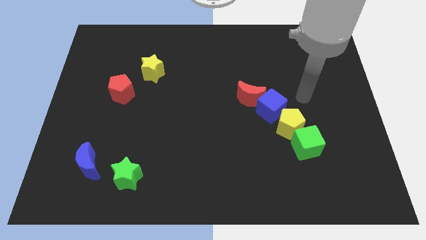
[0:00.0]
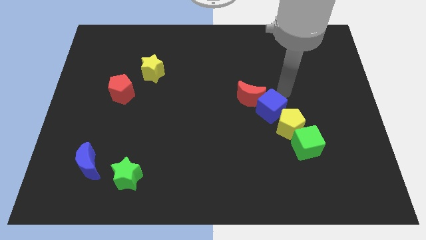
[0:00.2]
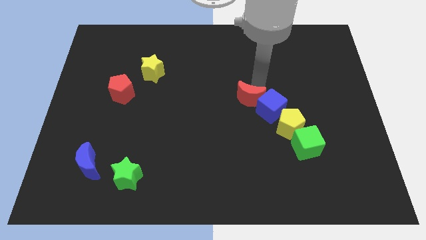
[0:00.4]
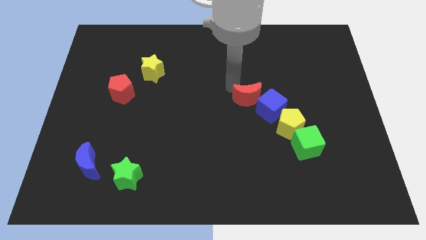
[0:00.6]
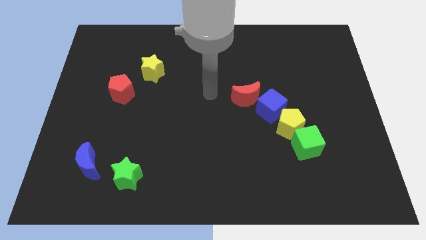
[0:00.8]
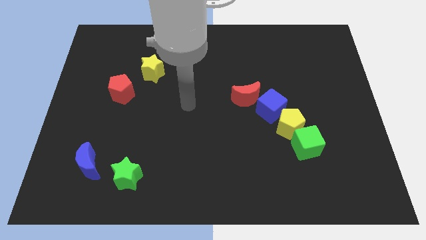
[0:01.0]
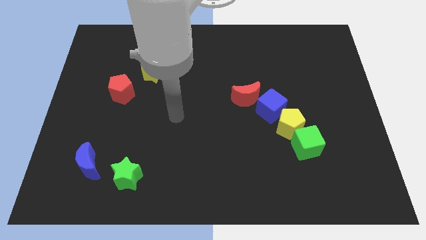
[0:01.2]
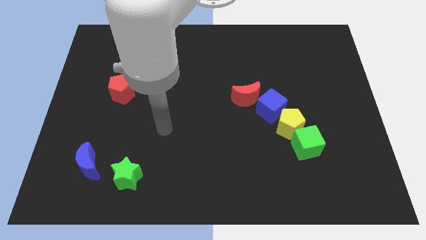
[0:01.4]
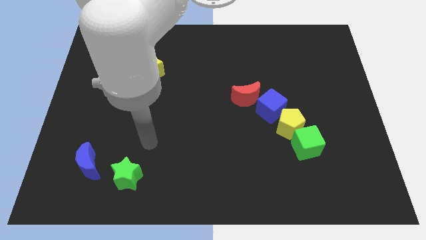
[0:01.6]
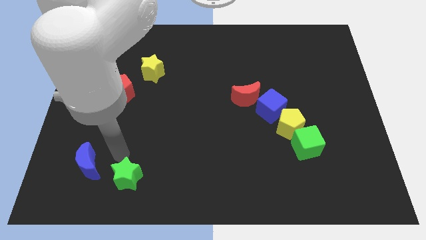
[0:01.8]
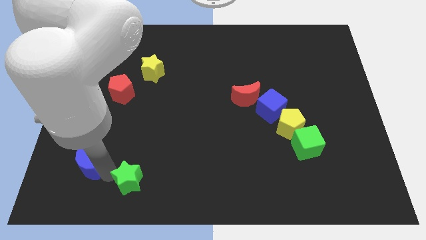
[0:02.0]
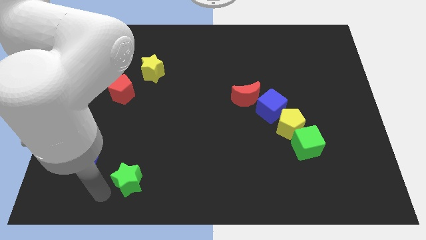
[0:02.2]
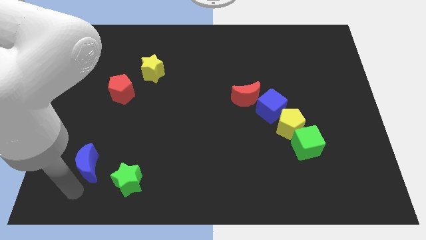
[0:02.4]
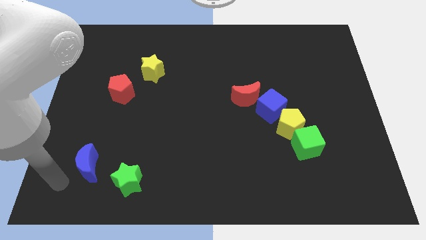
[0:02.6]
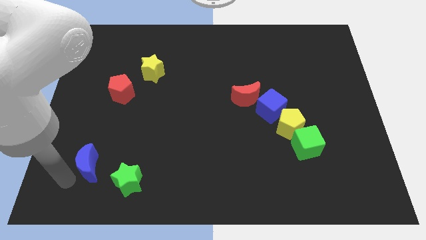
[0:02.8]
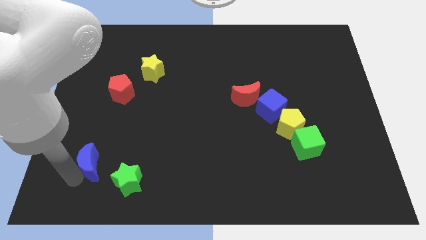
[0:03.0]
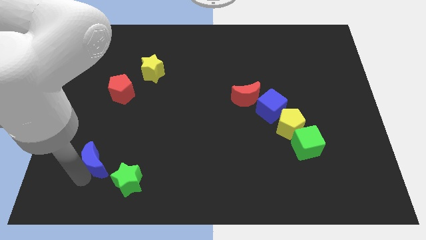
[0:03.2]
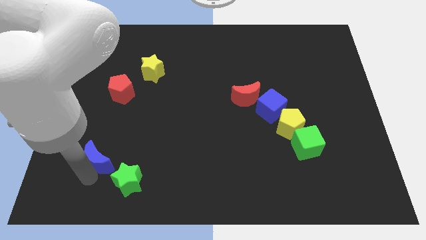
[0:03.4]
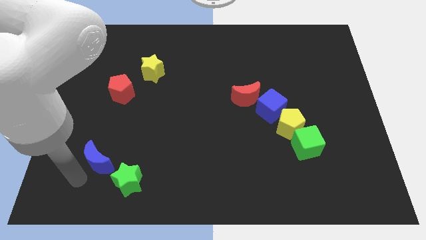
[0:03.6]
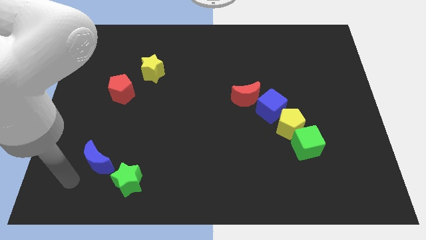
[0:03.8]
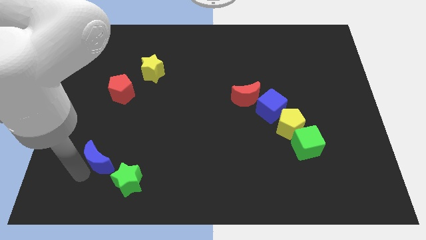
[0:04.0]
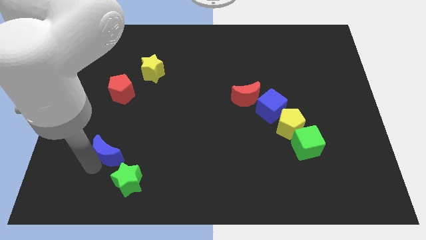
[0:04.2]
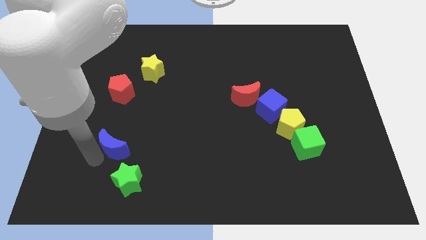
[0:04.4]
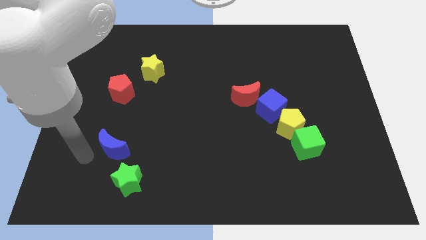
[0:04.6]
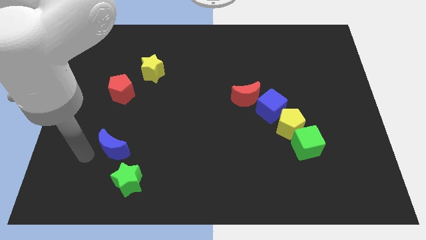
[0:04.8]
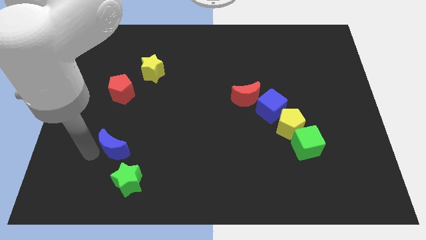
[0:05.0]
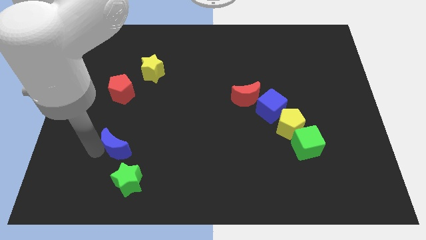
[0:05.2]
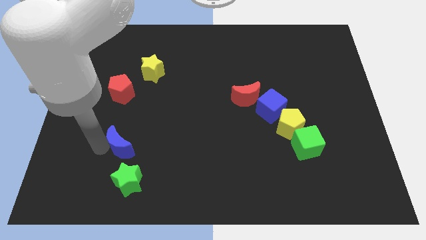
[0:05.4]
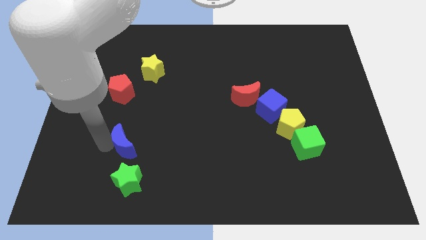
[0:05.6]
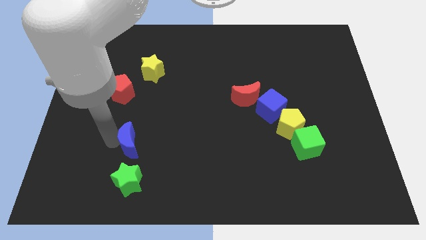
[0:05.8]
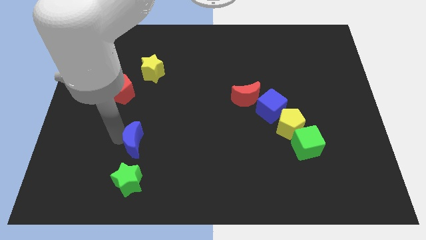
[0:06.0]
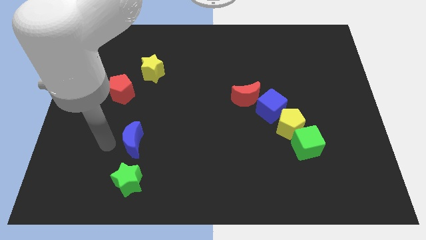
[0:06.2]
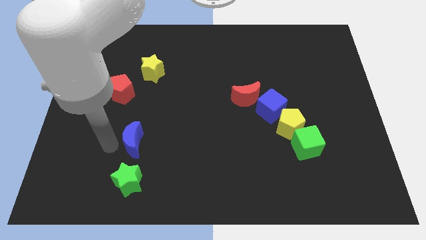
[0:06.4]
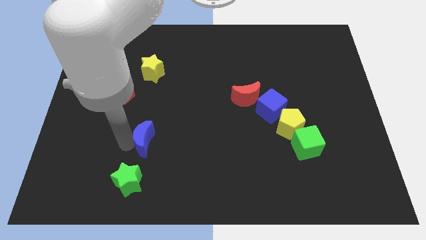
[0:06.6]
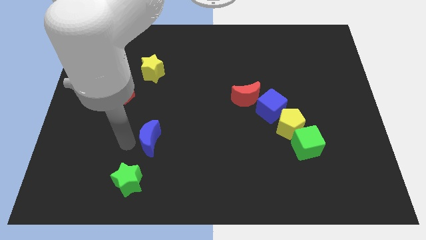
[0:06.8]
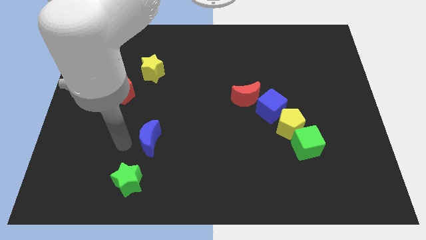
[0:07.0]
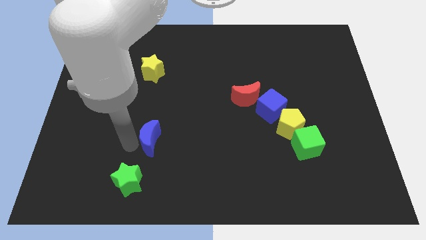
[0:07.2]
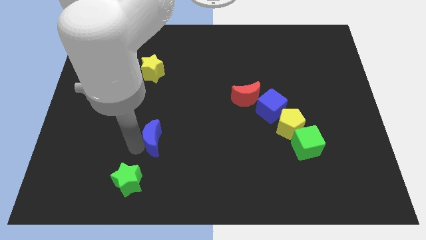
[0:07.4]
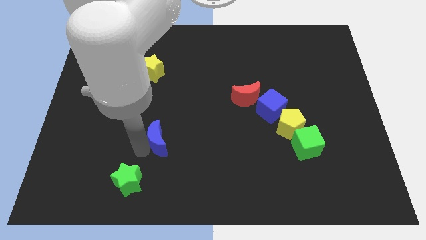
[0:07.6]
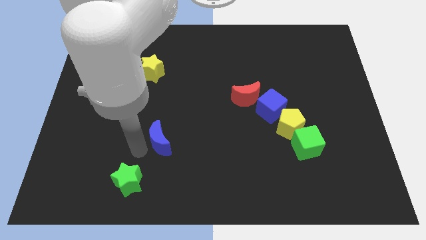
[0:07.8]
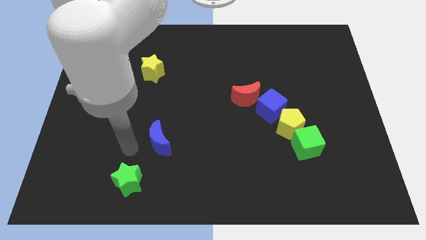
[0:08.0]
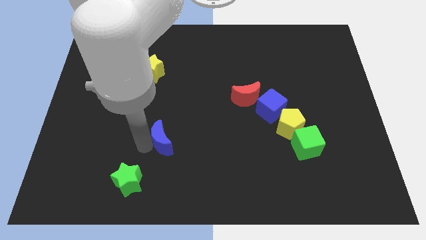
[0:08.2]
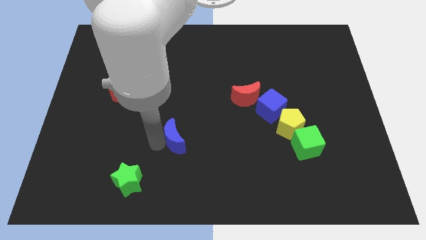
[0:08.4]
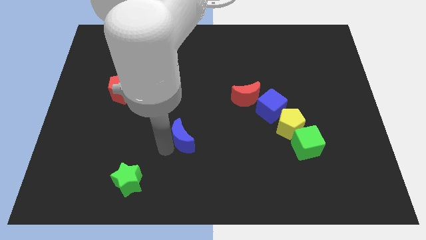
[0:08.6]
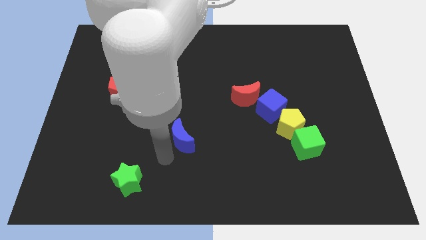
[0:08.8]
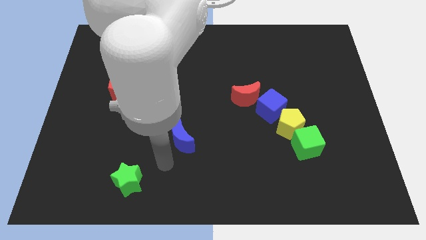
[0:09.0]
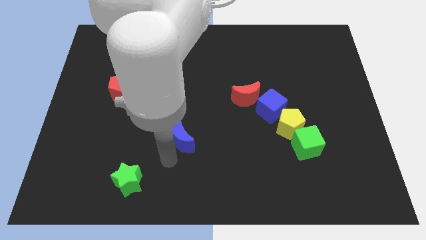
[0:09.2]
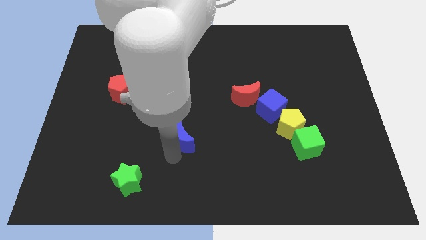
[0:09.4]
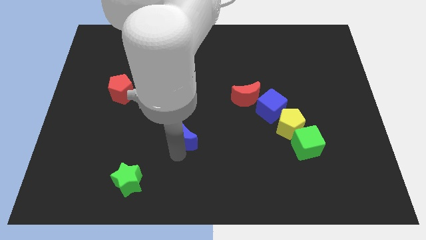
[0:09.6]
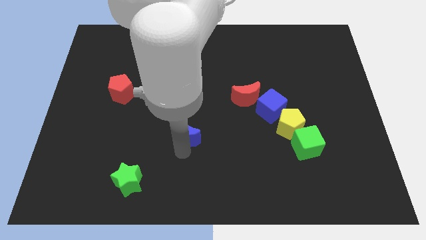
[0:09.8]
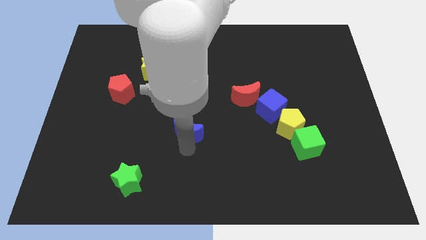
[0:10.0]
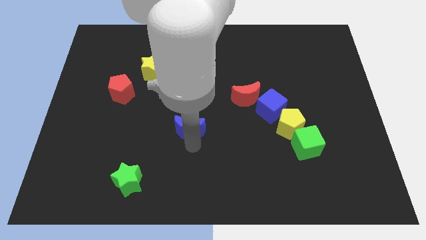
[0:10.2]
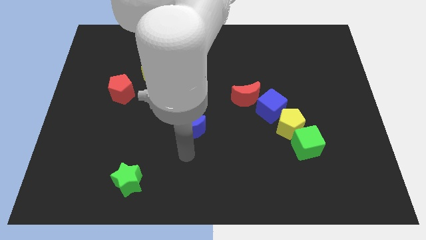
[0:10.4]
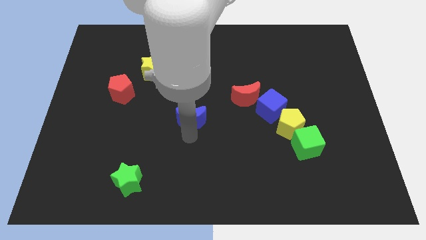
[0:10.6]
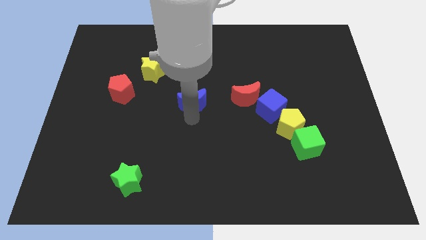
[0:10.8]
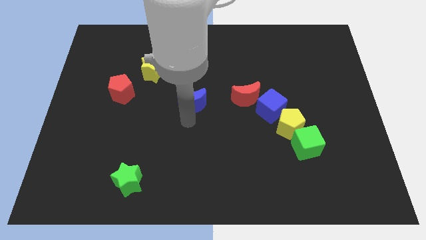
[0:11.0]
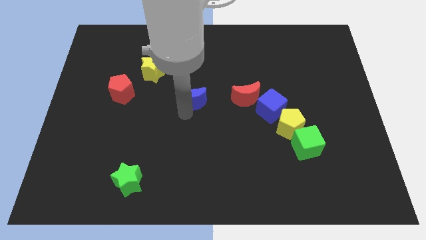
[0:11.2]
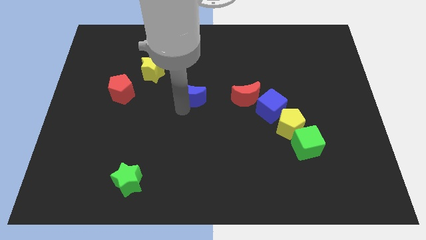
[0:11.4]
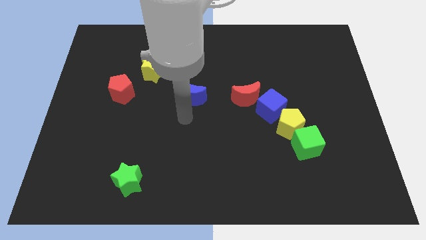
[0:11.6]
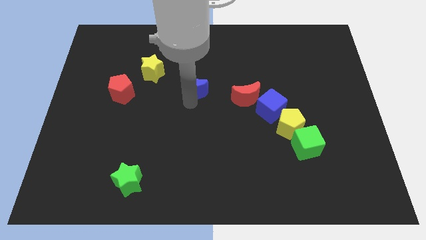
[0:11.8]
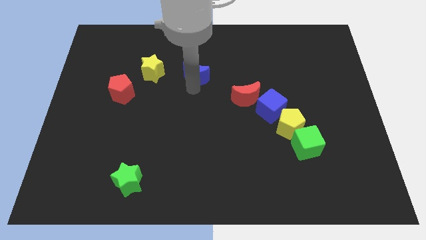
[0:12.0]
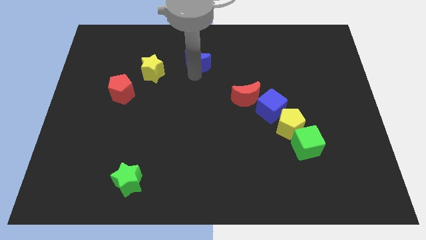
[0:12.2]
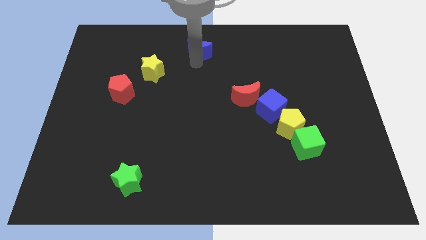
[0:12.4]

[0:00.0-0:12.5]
slide the blue moon to the top
